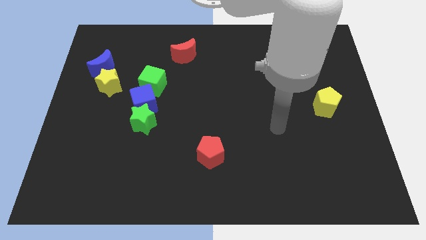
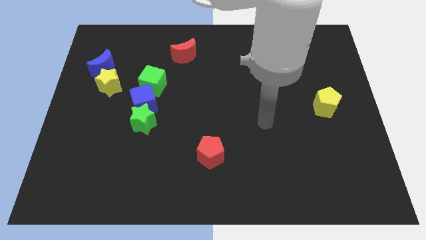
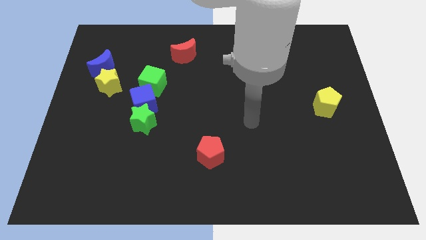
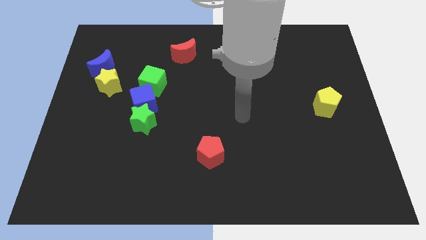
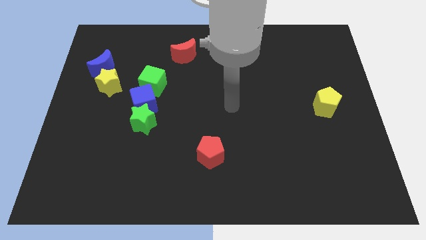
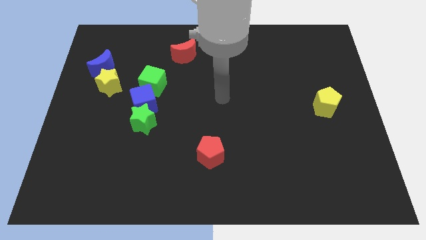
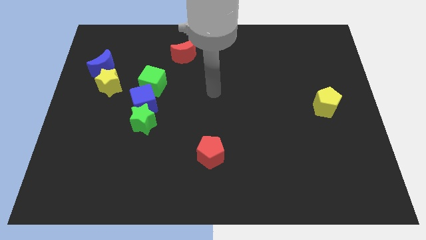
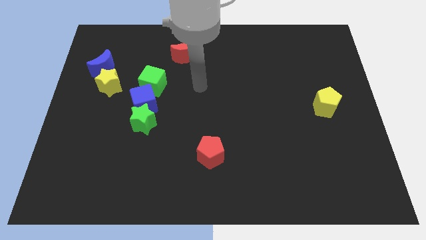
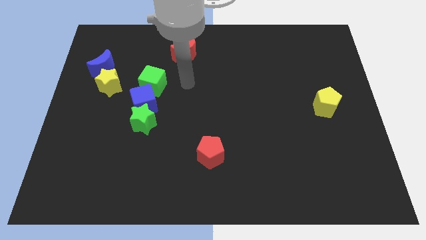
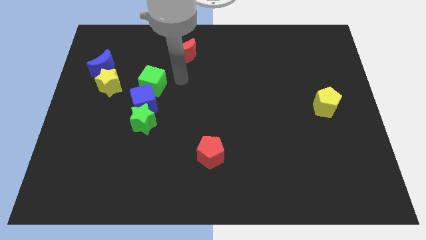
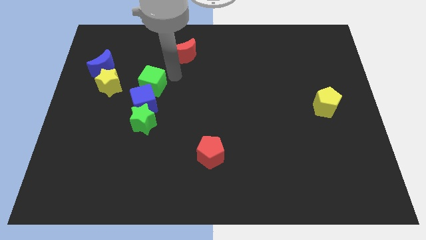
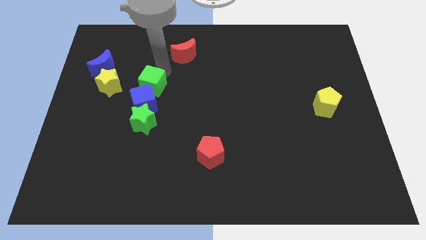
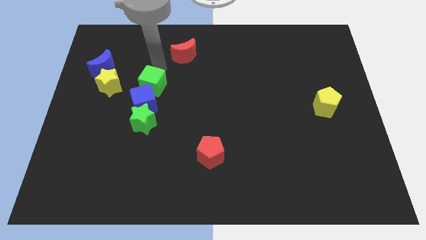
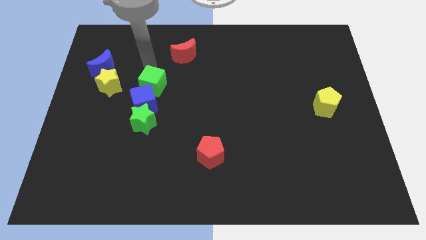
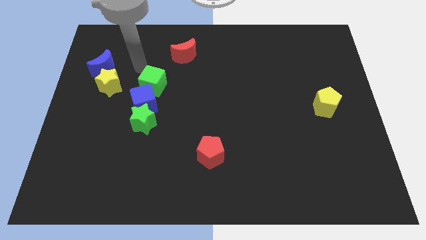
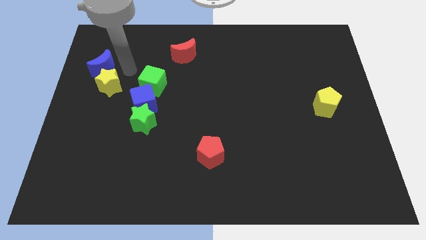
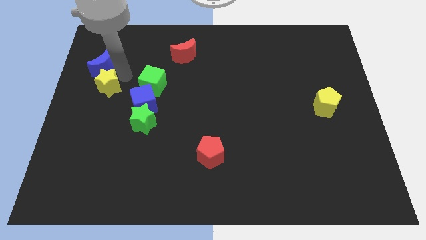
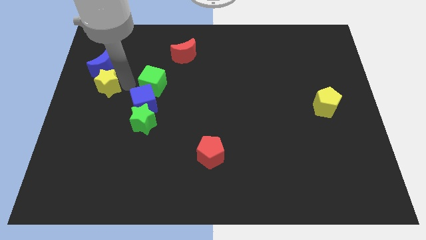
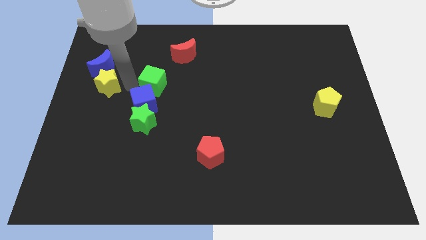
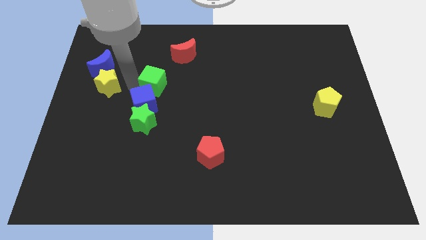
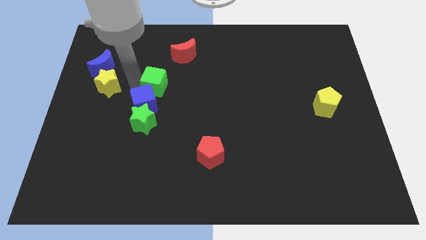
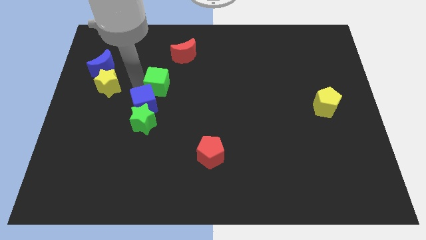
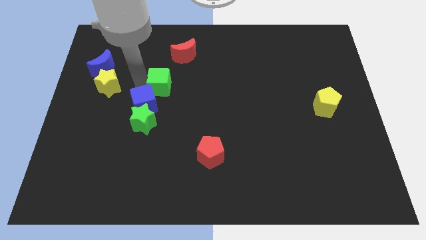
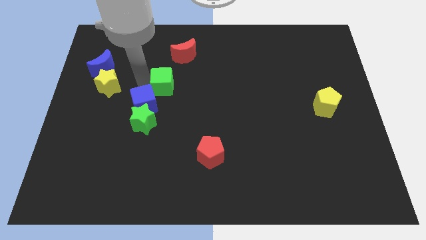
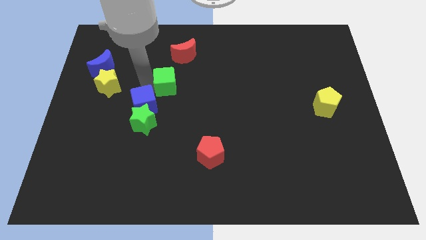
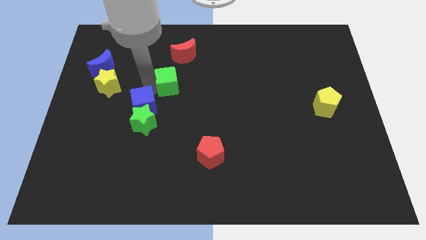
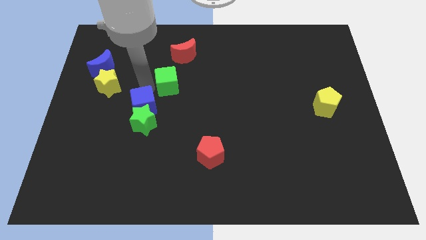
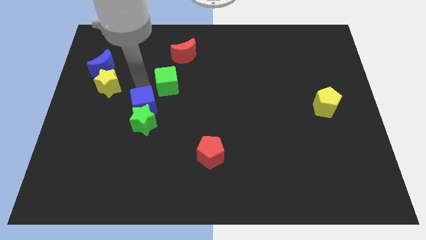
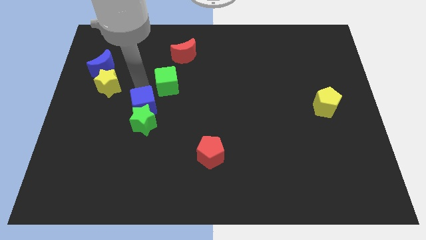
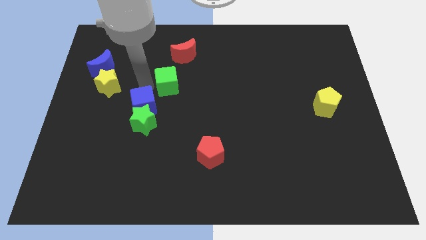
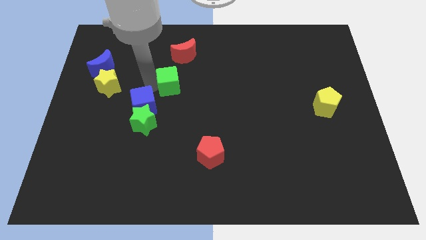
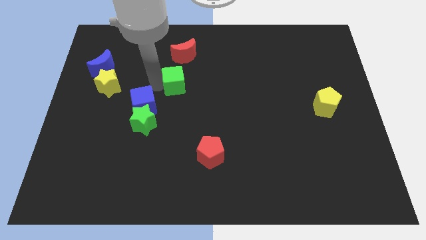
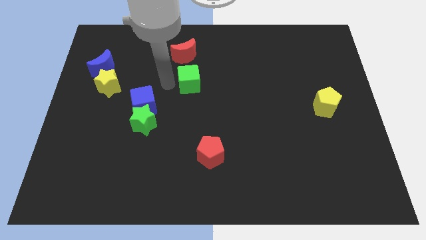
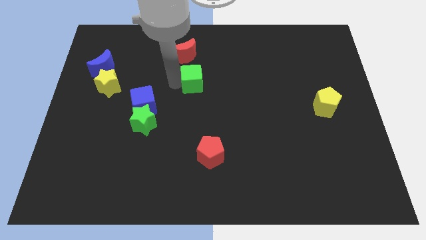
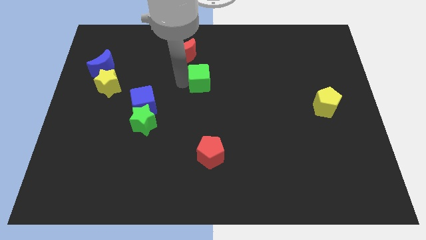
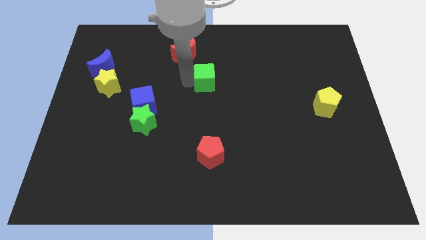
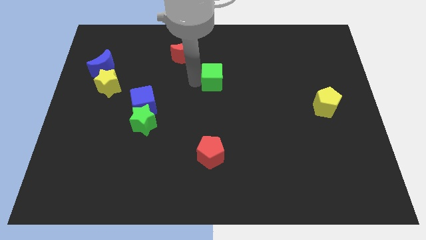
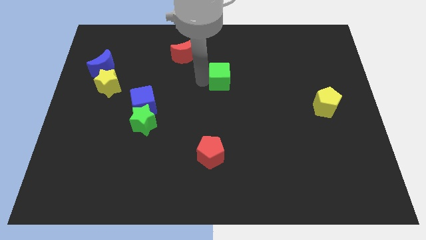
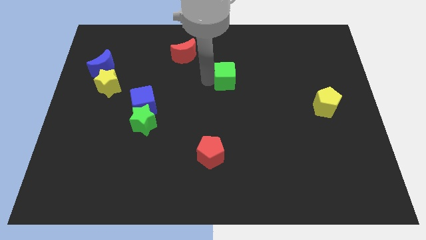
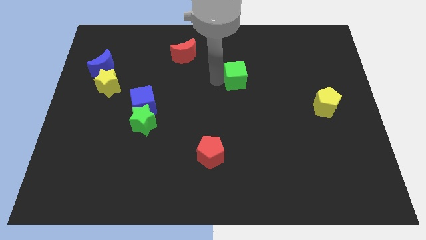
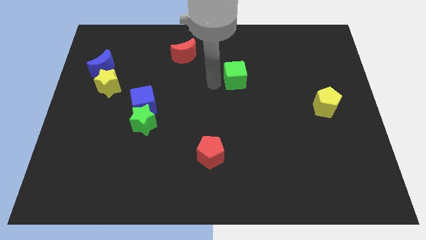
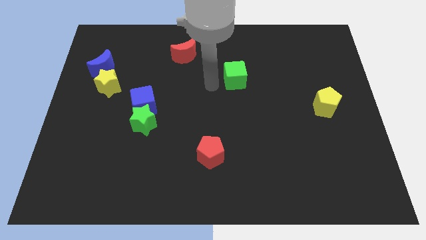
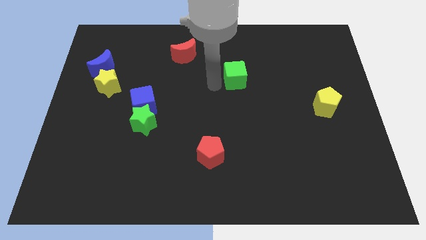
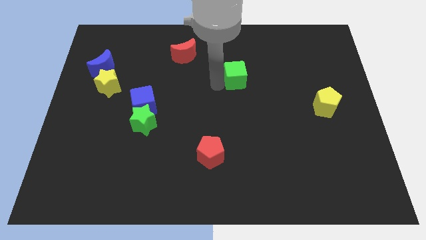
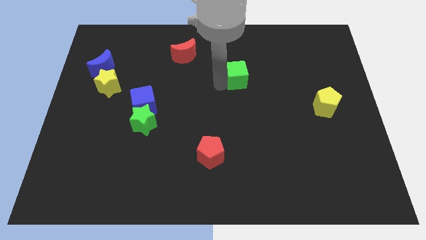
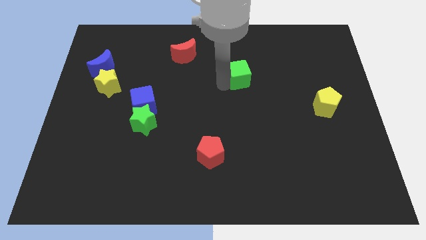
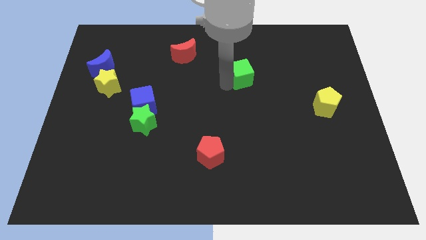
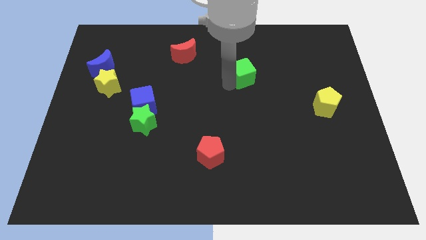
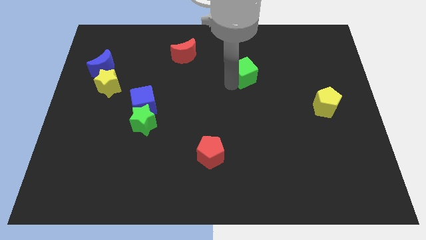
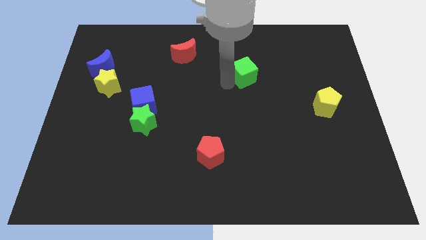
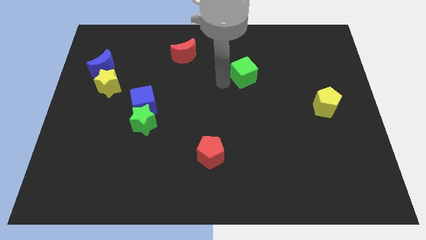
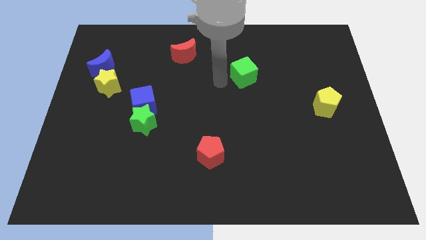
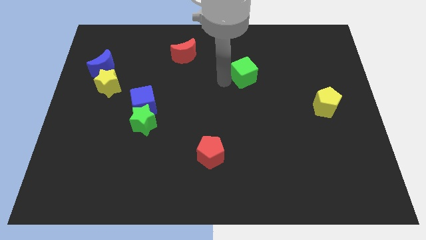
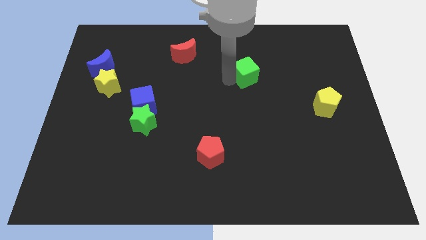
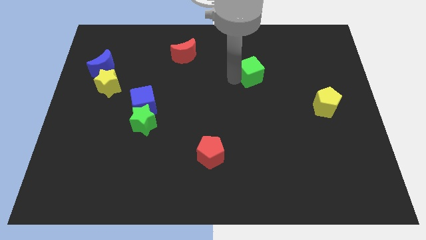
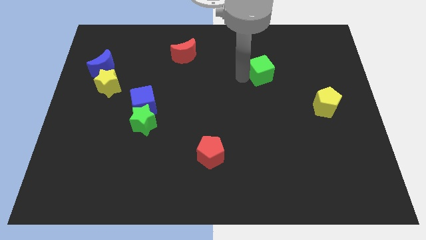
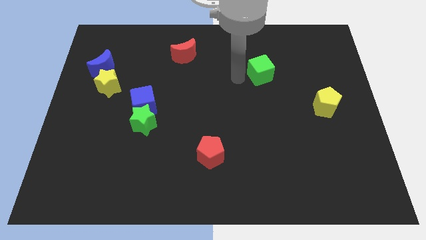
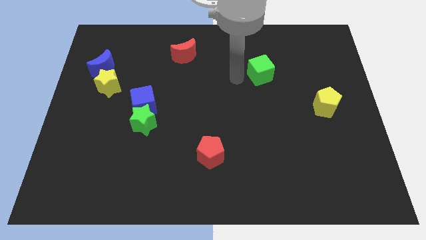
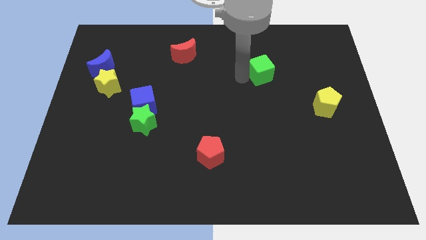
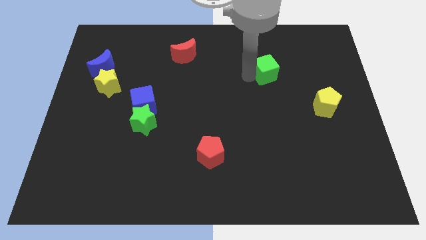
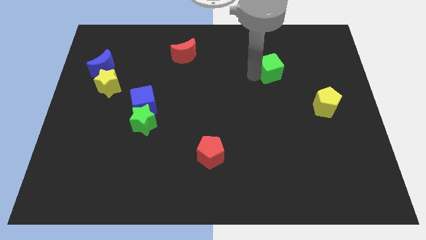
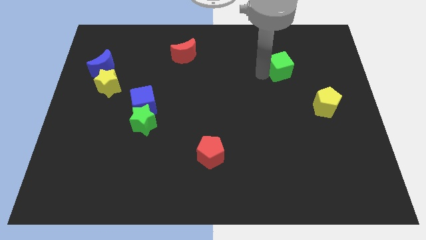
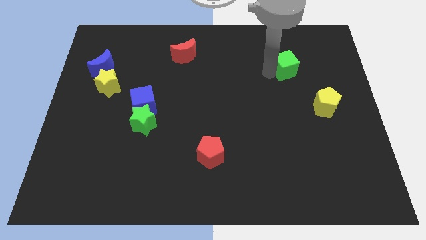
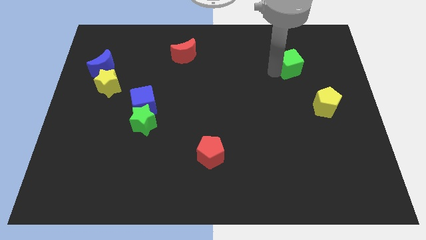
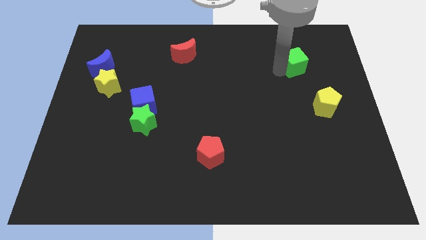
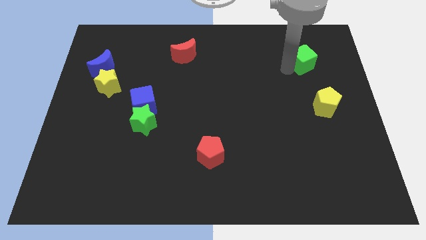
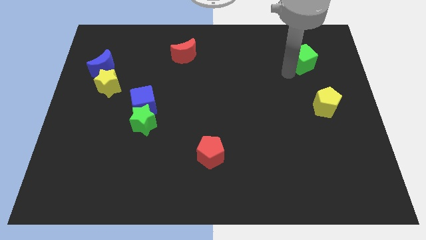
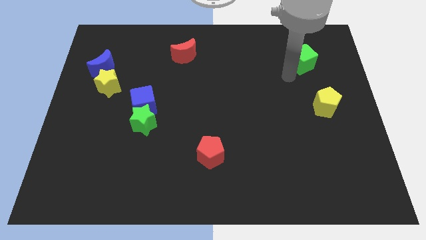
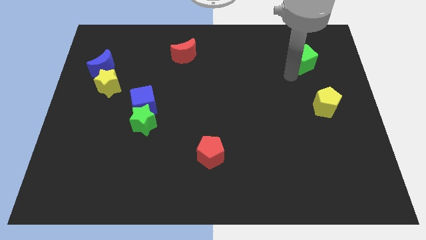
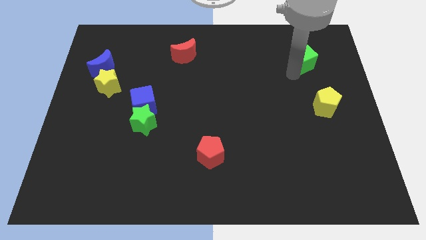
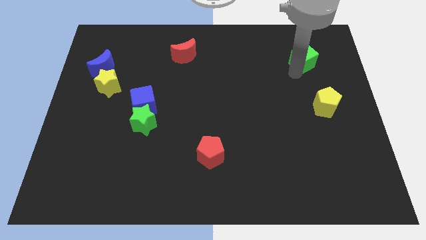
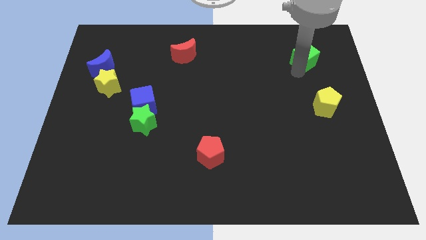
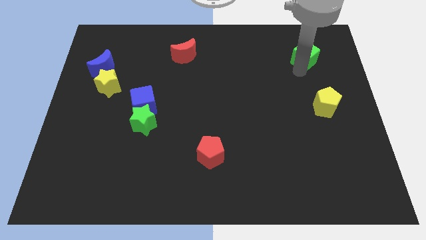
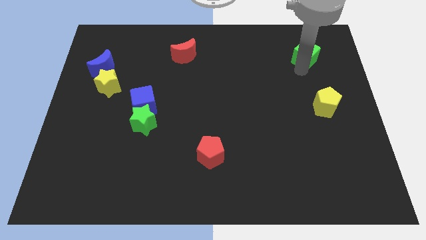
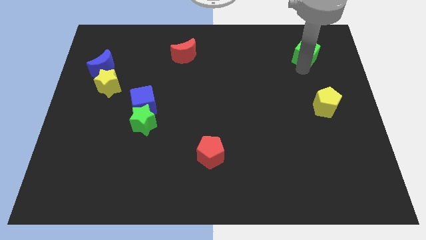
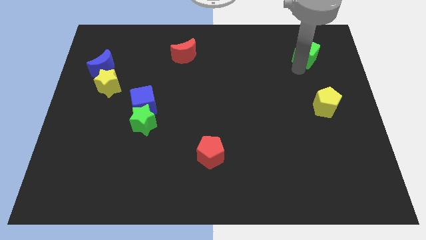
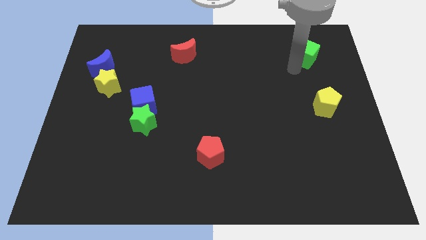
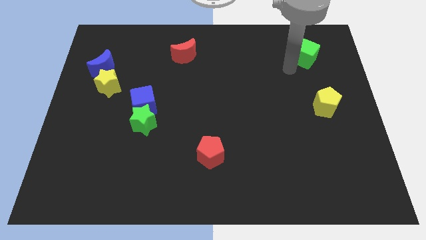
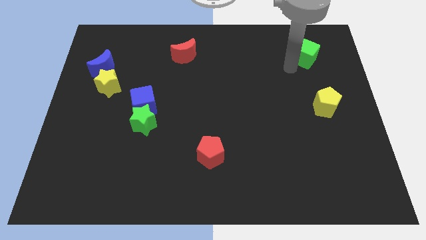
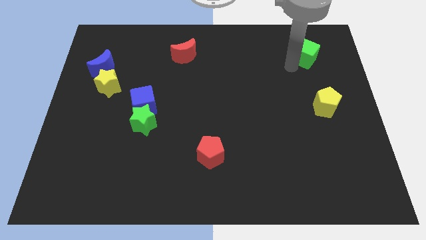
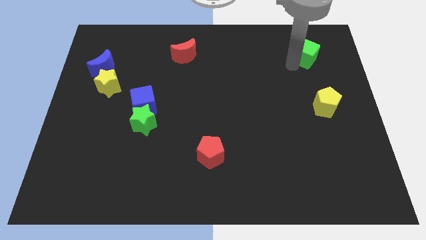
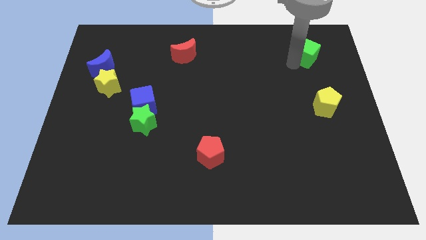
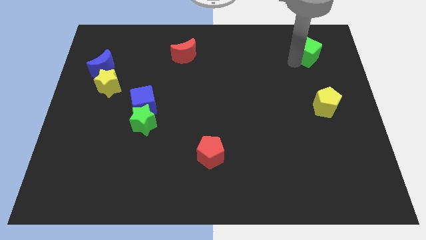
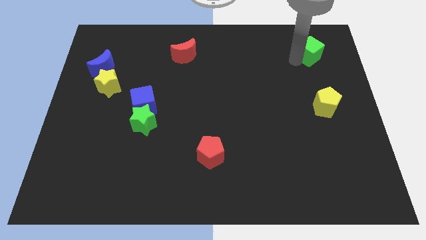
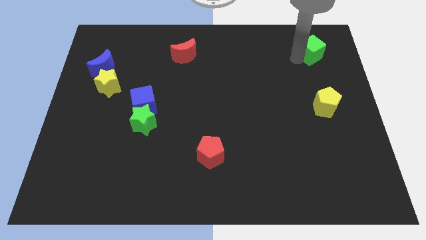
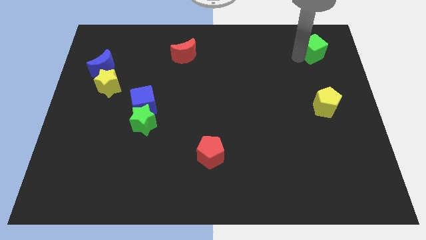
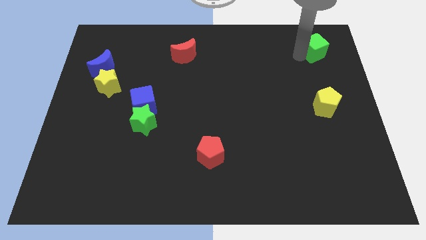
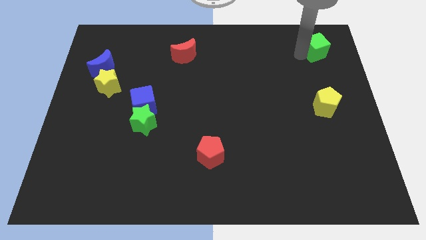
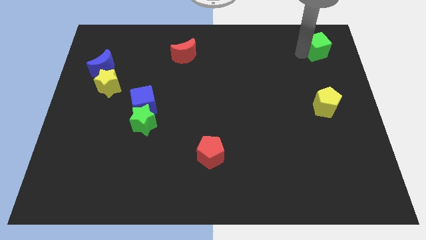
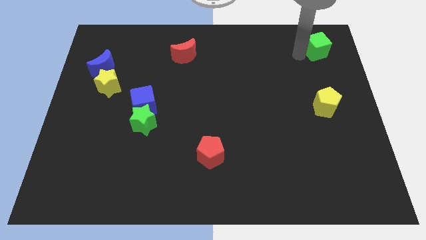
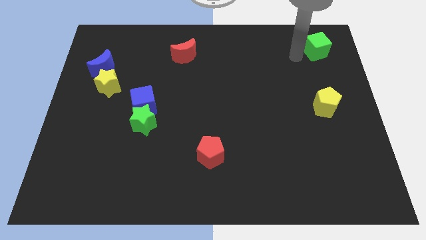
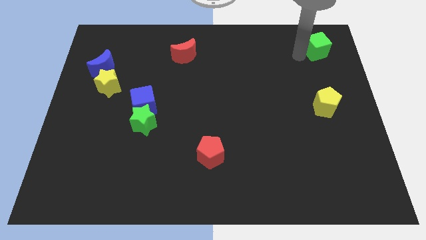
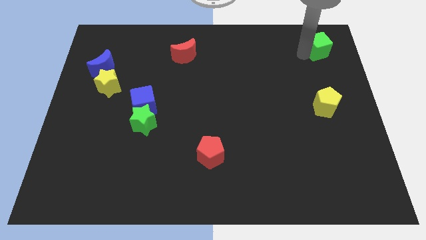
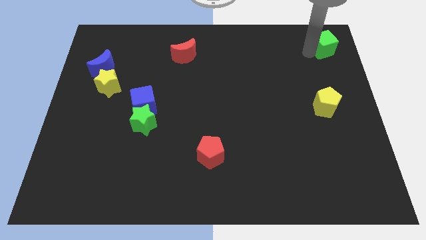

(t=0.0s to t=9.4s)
put the green cube to the top right corner
